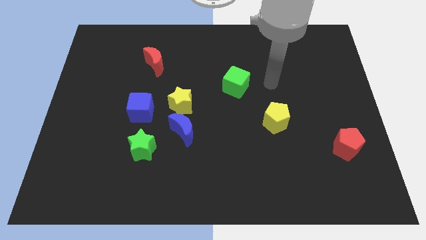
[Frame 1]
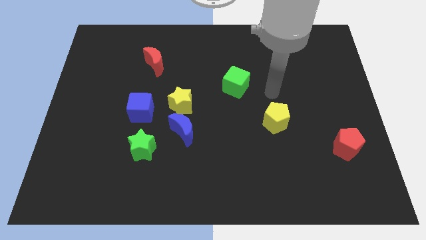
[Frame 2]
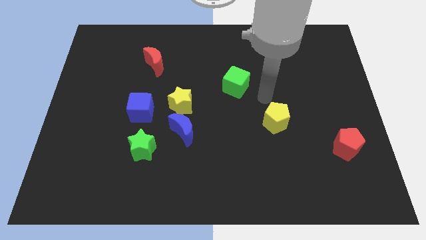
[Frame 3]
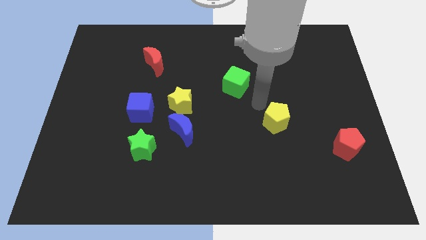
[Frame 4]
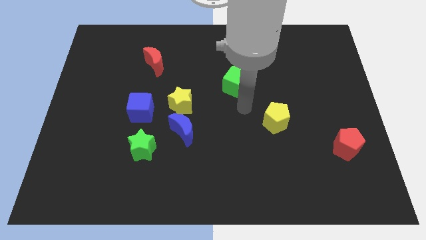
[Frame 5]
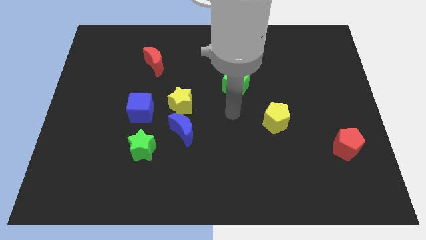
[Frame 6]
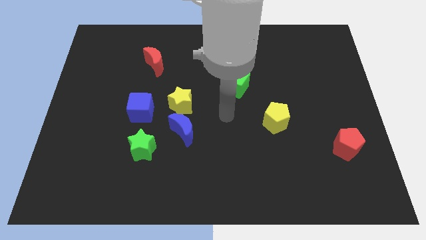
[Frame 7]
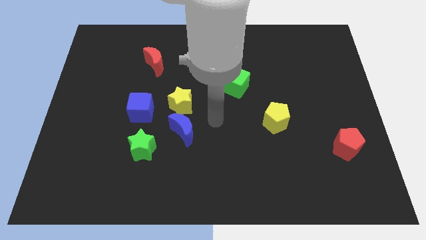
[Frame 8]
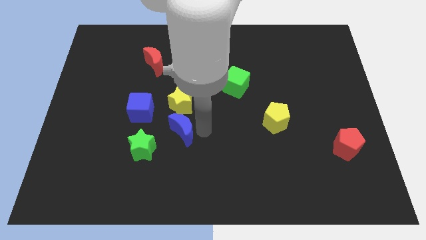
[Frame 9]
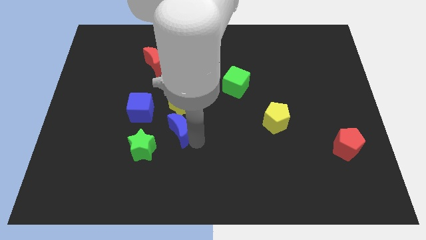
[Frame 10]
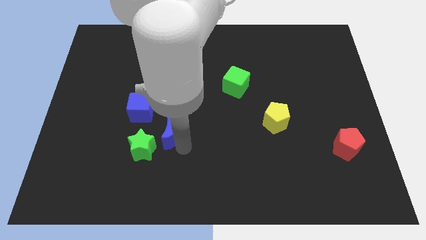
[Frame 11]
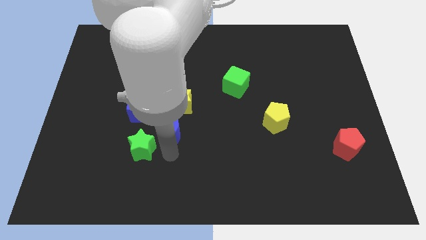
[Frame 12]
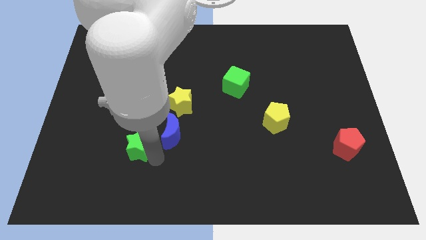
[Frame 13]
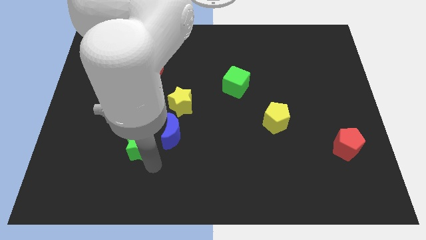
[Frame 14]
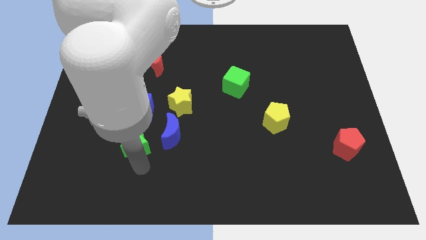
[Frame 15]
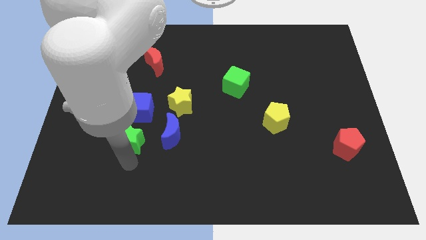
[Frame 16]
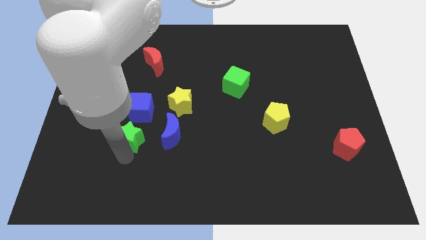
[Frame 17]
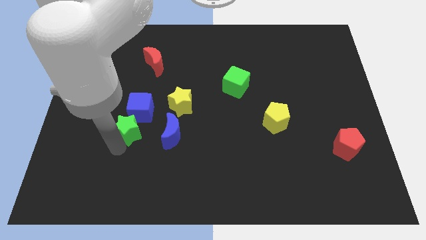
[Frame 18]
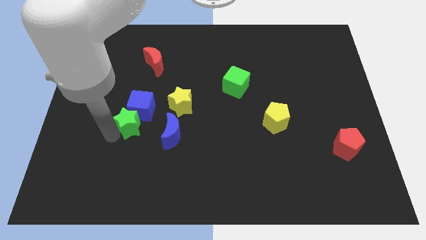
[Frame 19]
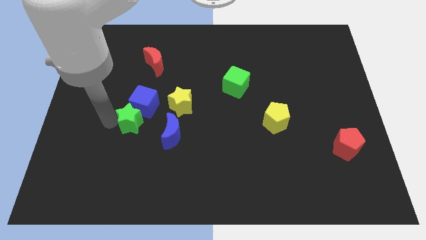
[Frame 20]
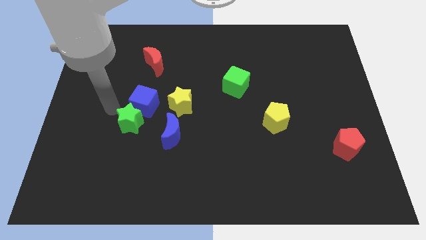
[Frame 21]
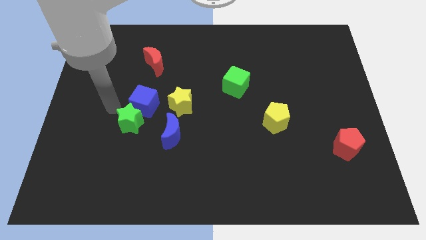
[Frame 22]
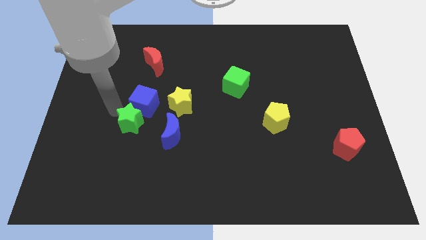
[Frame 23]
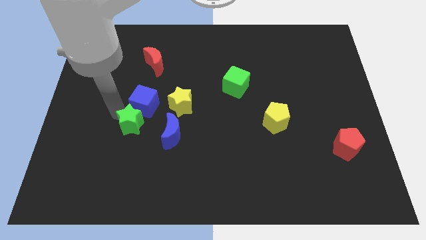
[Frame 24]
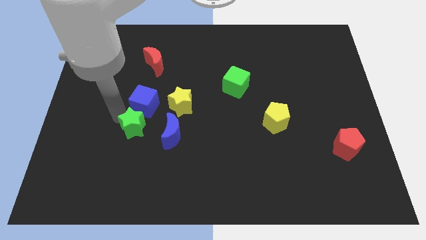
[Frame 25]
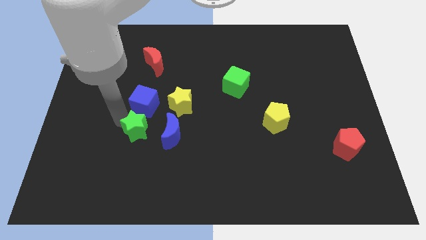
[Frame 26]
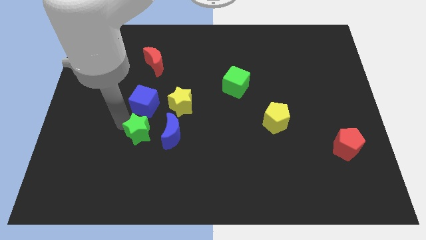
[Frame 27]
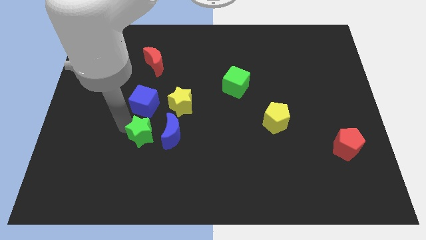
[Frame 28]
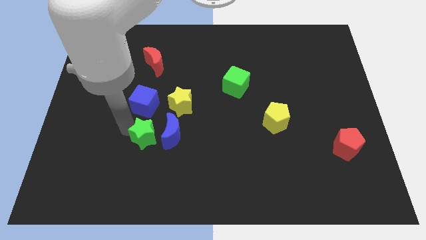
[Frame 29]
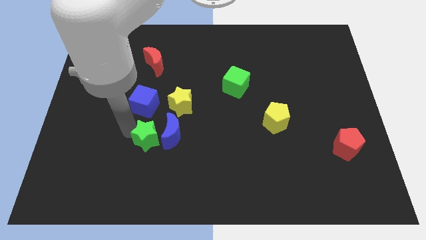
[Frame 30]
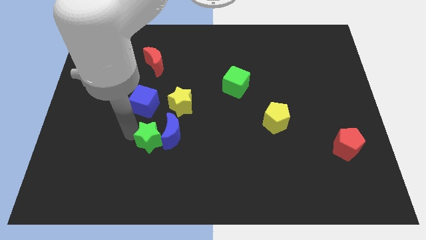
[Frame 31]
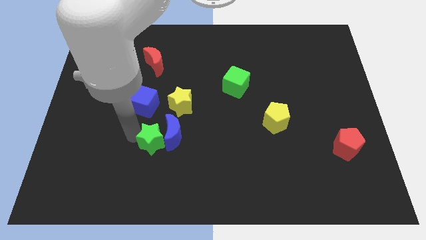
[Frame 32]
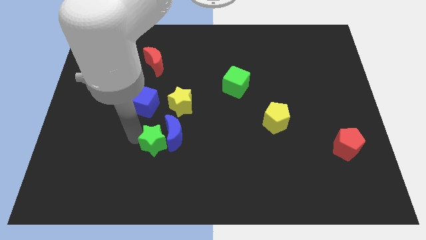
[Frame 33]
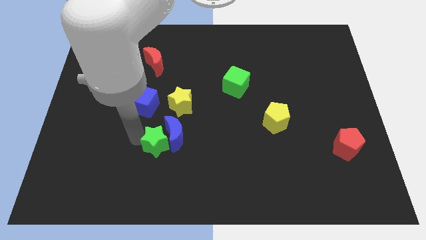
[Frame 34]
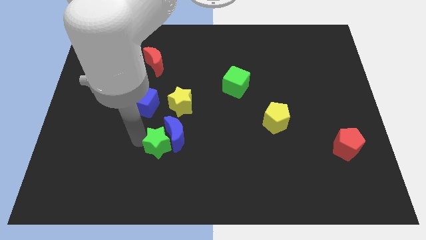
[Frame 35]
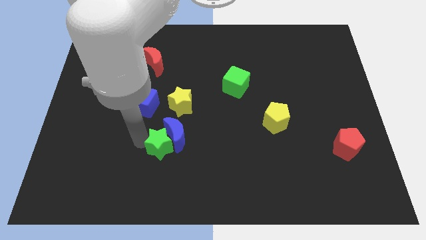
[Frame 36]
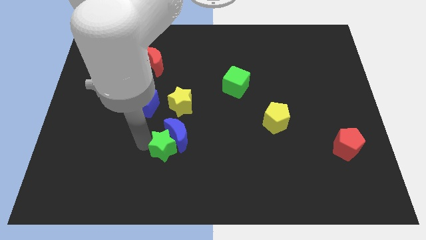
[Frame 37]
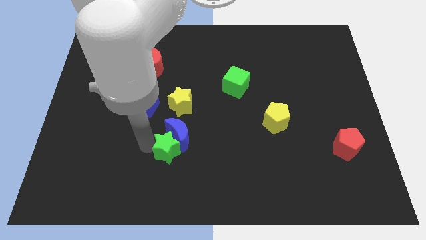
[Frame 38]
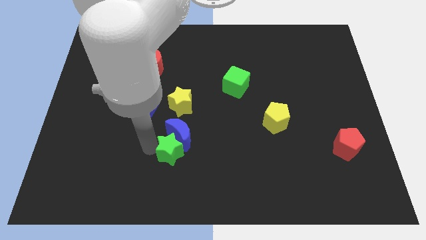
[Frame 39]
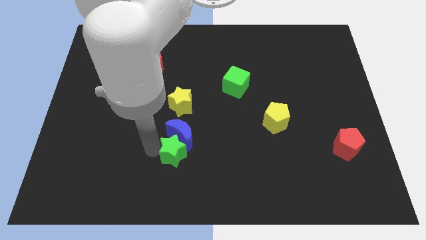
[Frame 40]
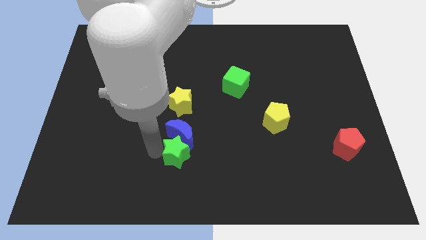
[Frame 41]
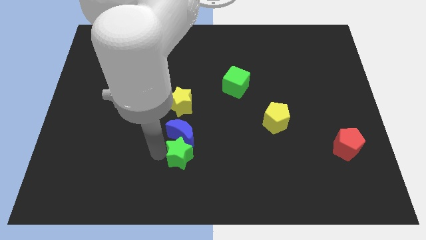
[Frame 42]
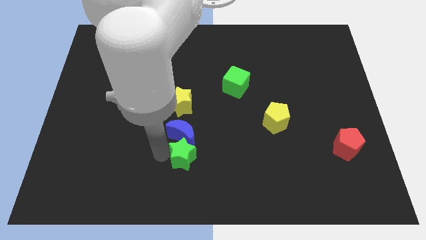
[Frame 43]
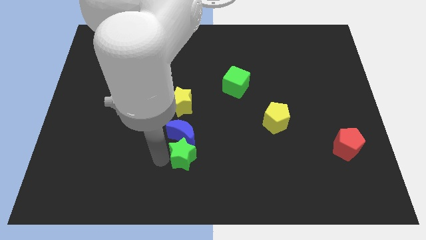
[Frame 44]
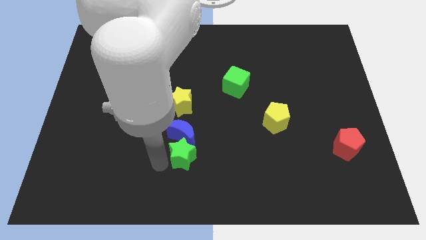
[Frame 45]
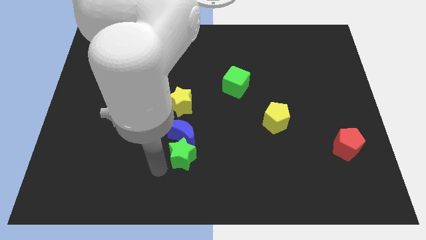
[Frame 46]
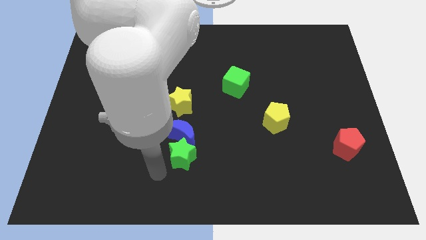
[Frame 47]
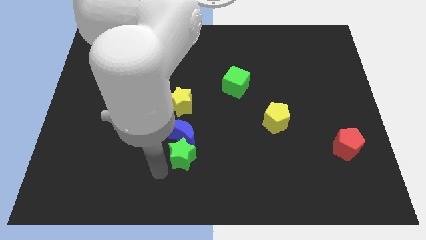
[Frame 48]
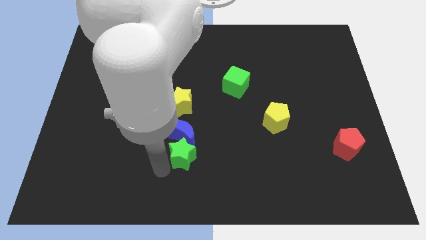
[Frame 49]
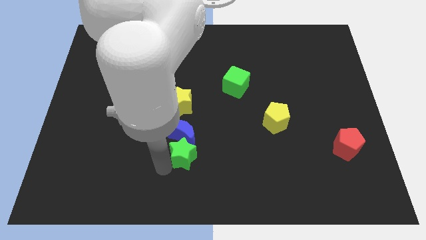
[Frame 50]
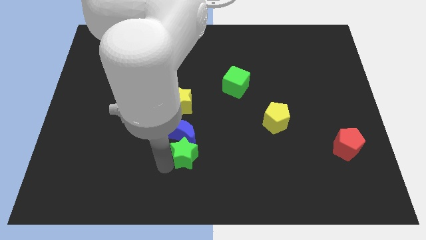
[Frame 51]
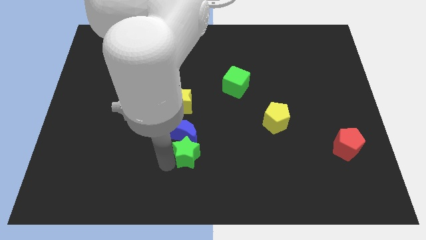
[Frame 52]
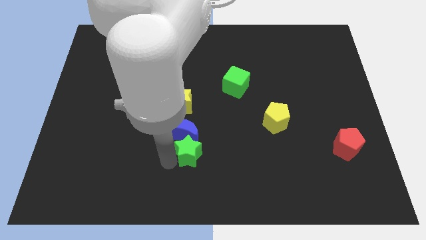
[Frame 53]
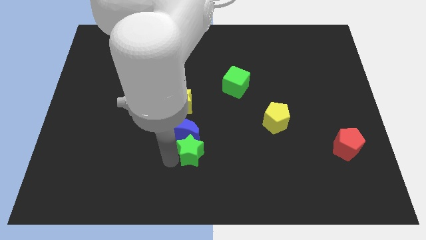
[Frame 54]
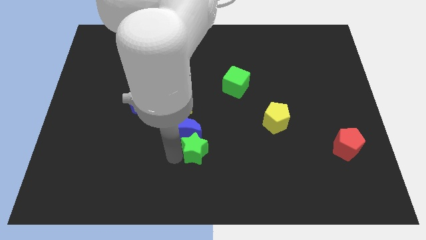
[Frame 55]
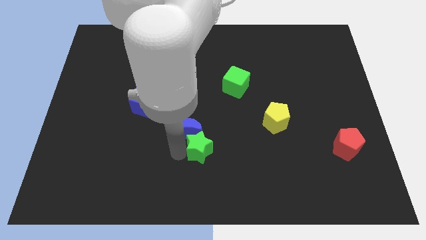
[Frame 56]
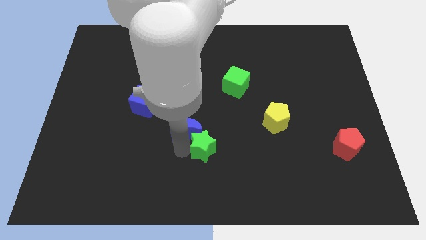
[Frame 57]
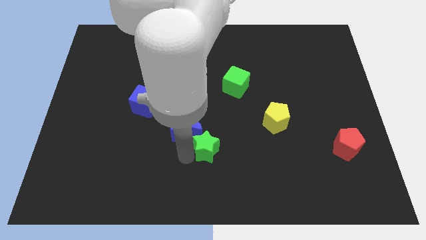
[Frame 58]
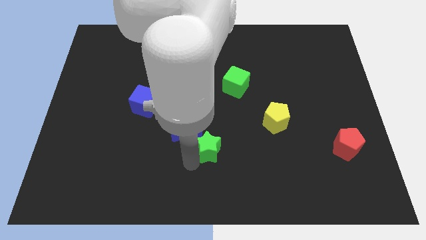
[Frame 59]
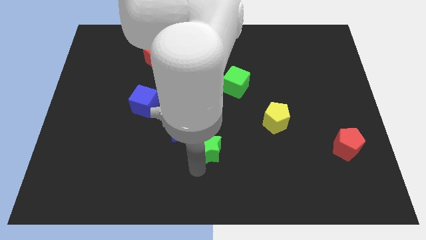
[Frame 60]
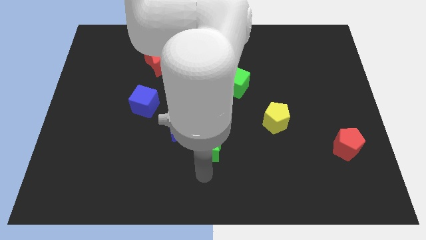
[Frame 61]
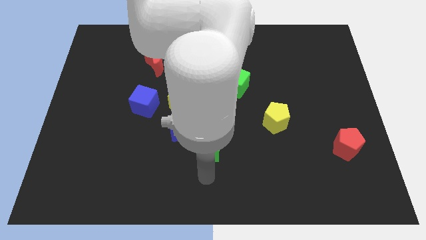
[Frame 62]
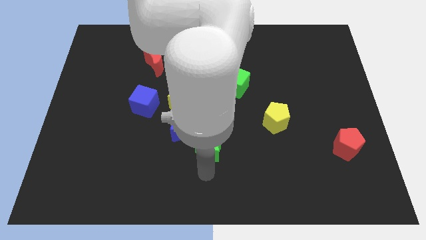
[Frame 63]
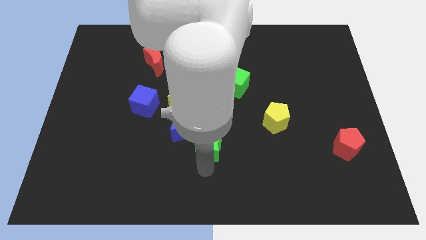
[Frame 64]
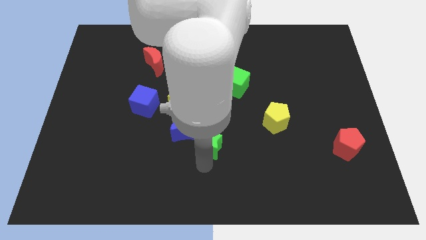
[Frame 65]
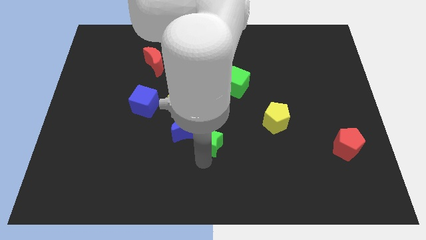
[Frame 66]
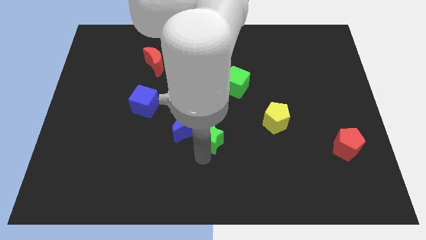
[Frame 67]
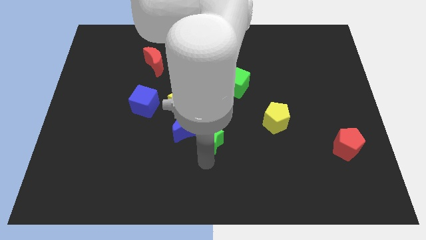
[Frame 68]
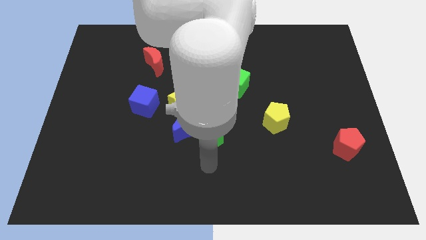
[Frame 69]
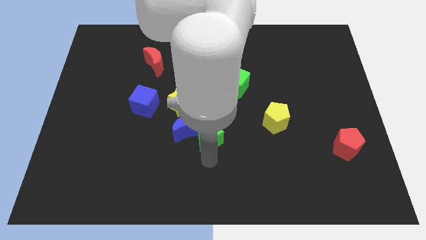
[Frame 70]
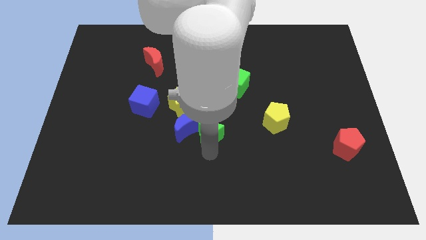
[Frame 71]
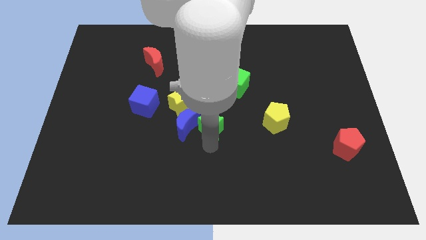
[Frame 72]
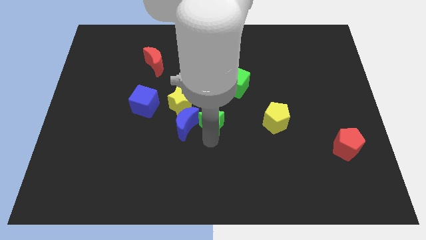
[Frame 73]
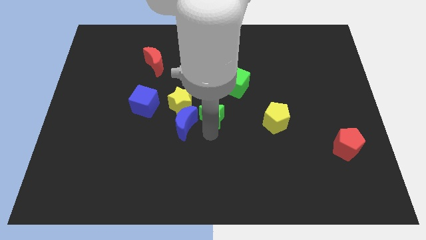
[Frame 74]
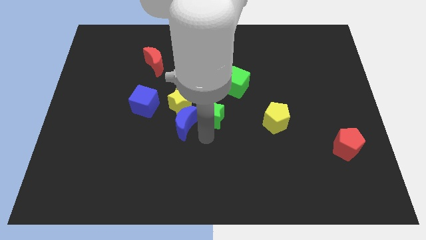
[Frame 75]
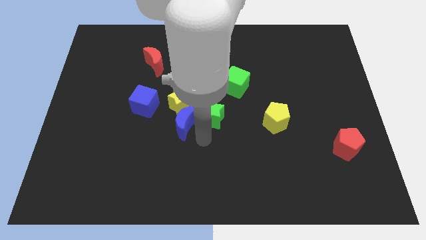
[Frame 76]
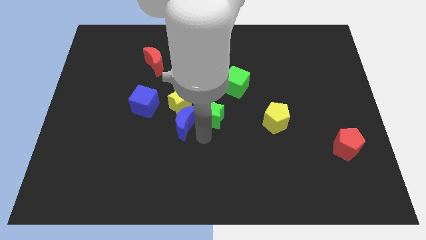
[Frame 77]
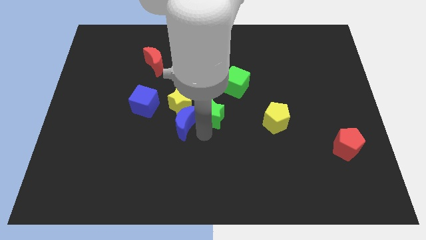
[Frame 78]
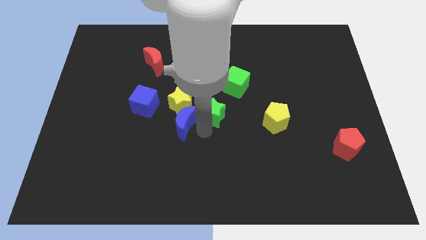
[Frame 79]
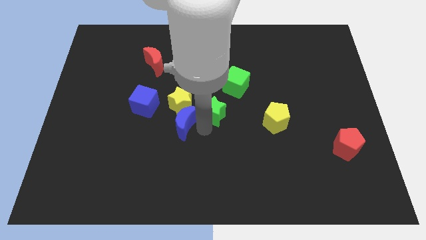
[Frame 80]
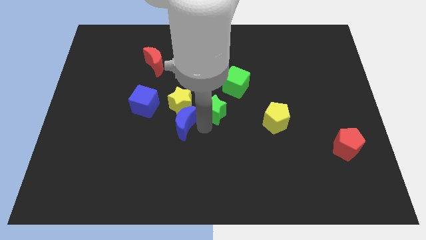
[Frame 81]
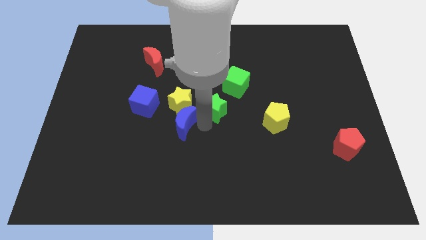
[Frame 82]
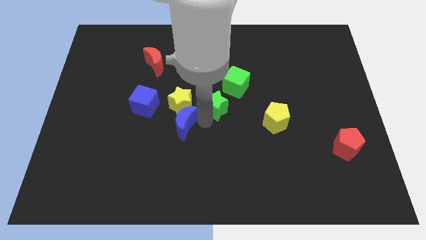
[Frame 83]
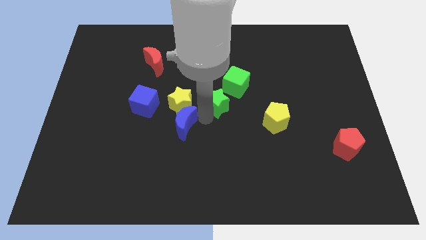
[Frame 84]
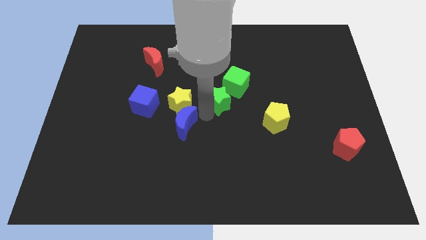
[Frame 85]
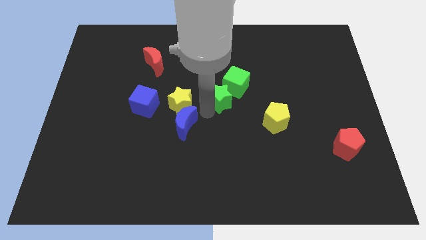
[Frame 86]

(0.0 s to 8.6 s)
push the green star close to the green cube
